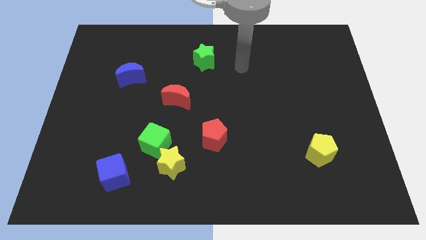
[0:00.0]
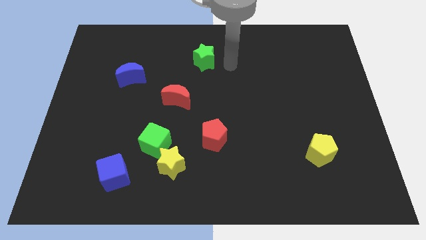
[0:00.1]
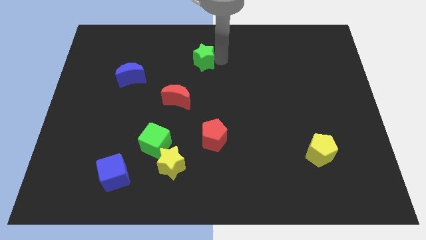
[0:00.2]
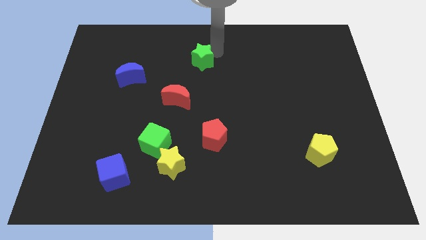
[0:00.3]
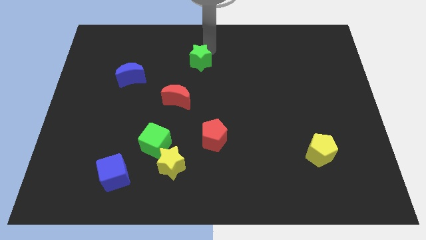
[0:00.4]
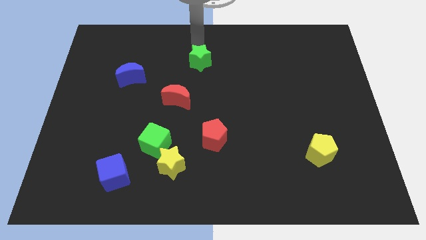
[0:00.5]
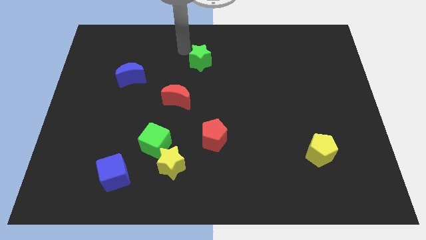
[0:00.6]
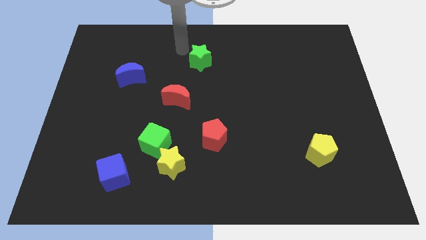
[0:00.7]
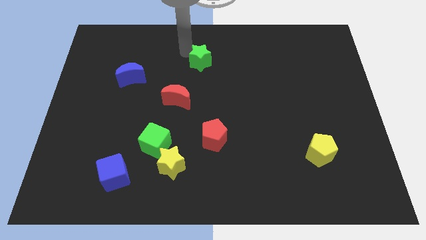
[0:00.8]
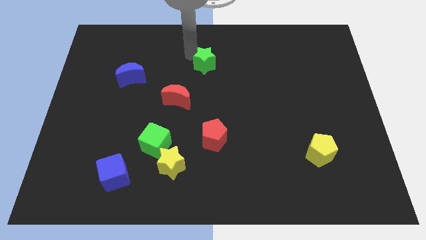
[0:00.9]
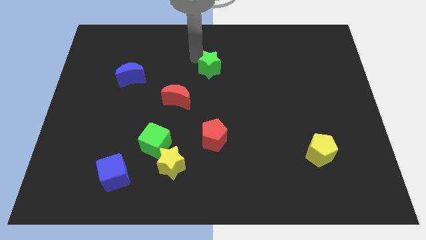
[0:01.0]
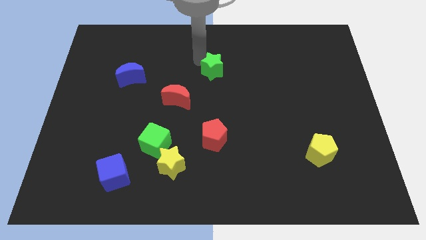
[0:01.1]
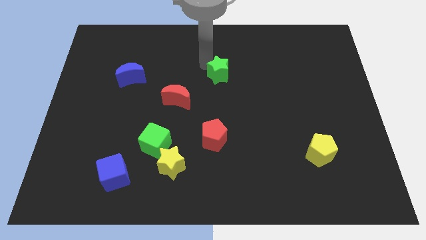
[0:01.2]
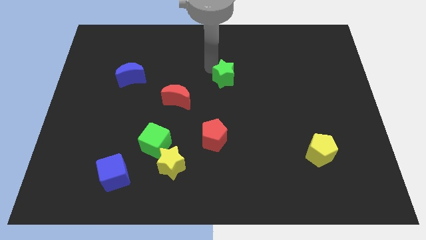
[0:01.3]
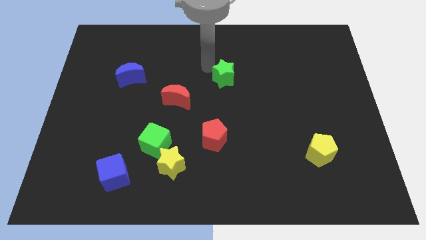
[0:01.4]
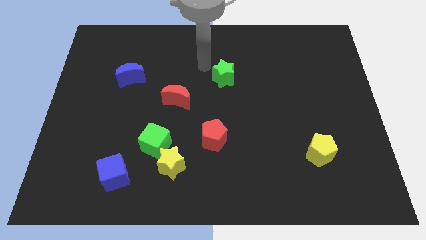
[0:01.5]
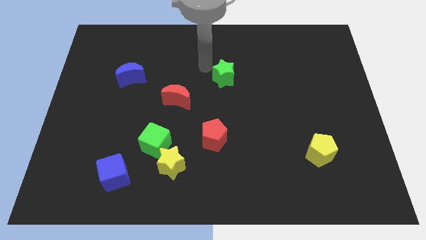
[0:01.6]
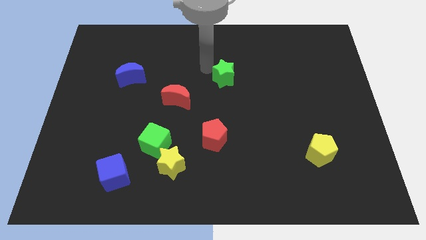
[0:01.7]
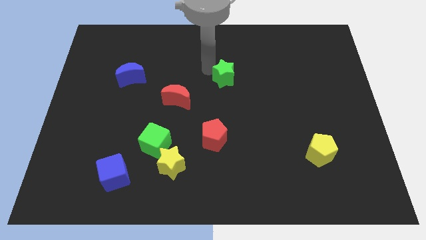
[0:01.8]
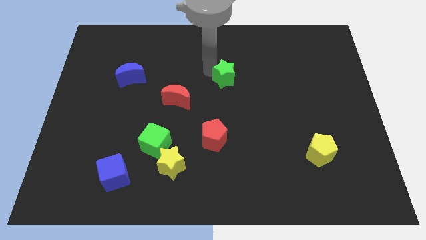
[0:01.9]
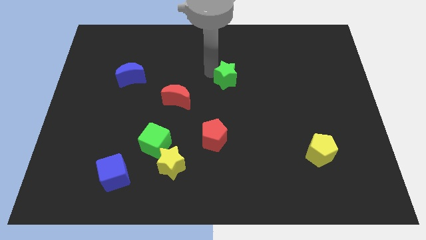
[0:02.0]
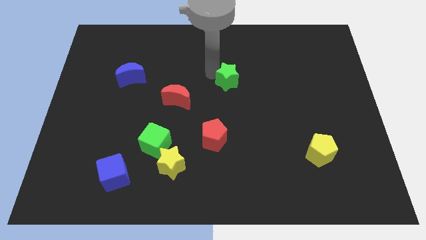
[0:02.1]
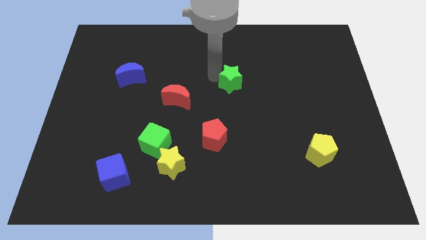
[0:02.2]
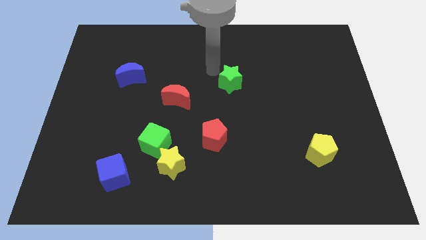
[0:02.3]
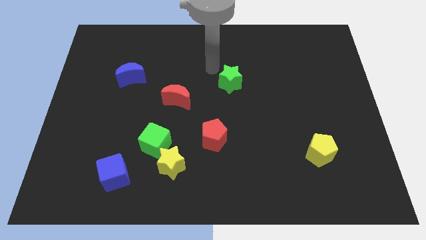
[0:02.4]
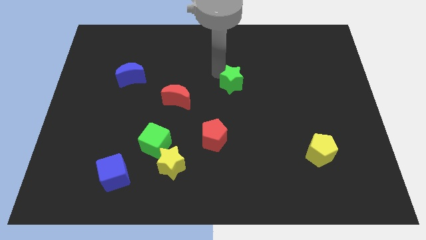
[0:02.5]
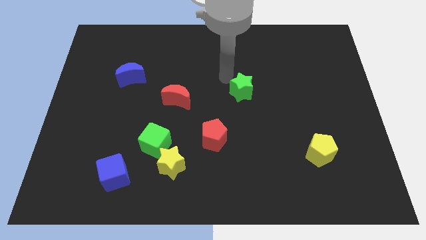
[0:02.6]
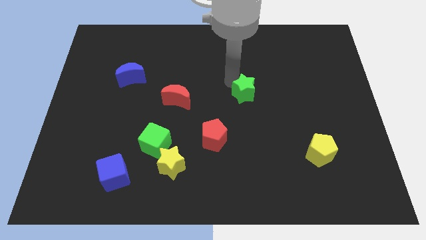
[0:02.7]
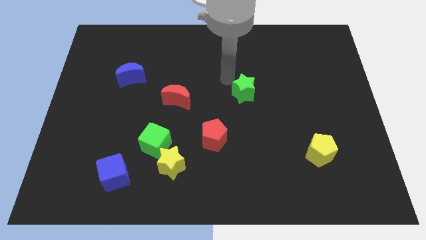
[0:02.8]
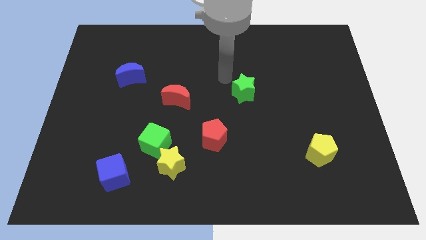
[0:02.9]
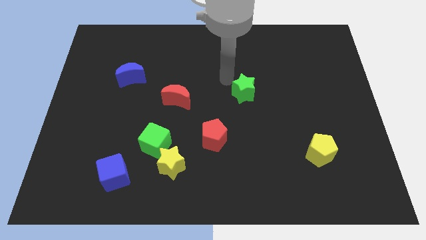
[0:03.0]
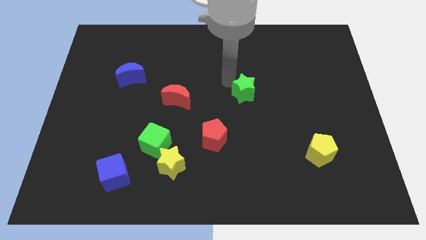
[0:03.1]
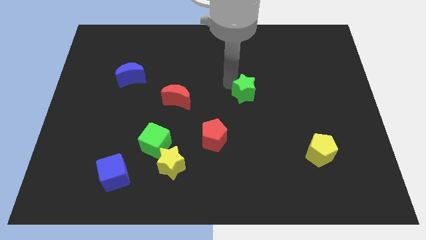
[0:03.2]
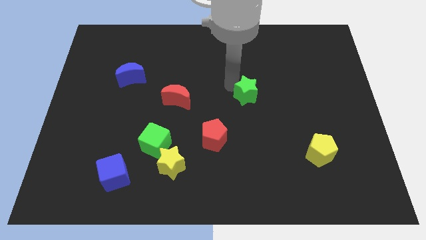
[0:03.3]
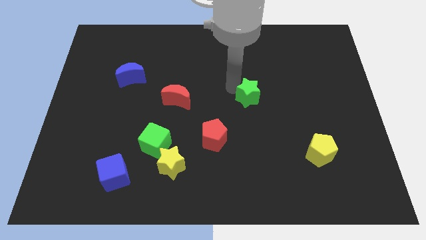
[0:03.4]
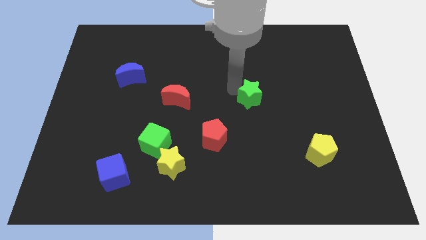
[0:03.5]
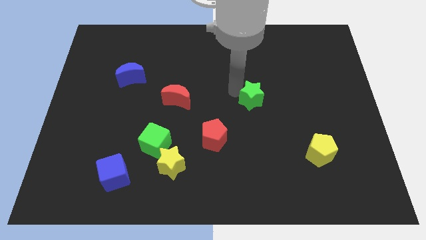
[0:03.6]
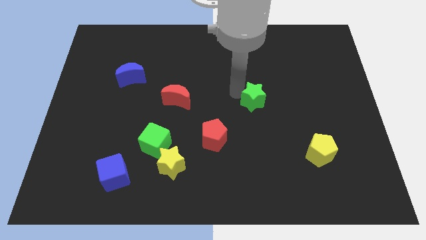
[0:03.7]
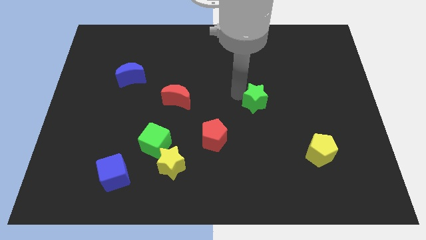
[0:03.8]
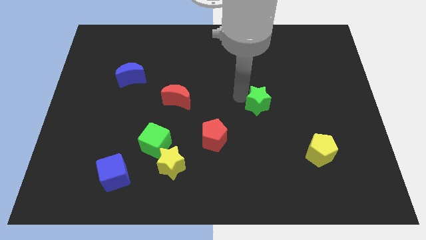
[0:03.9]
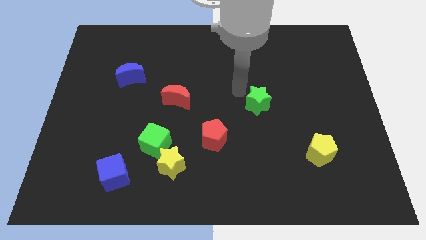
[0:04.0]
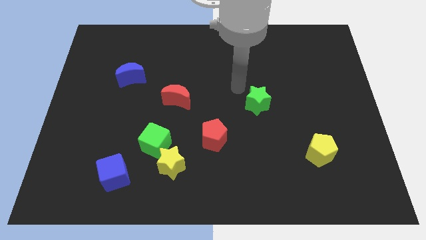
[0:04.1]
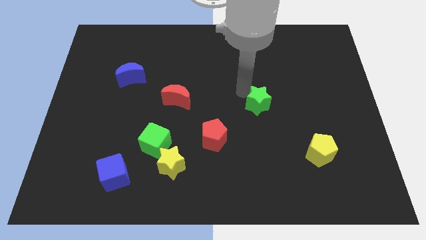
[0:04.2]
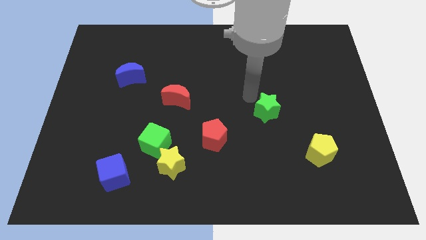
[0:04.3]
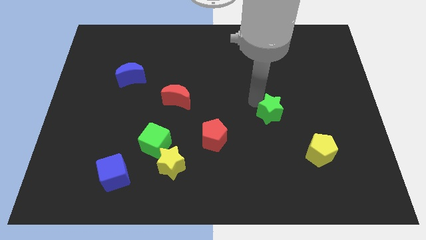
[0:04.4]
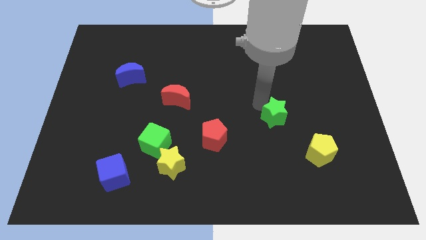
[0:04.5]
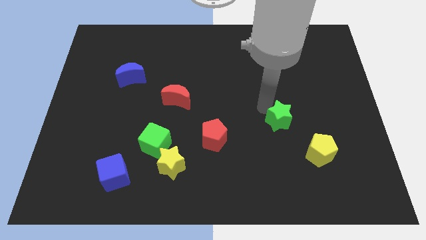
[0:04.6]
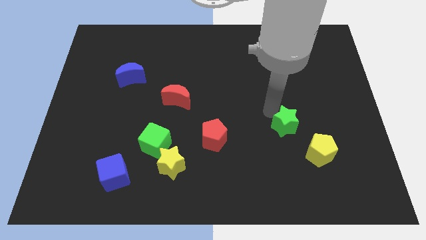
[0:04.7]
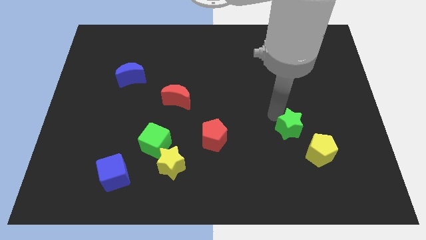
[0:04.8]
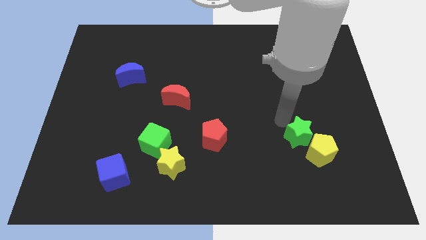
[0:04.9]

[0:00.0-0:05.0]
put the green star to the yellow pentagon

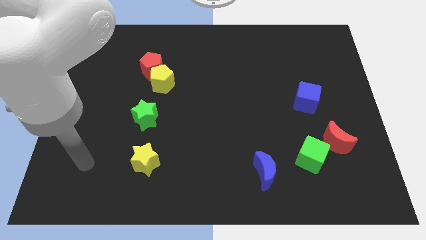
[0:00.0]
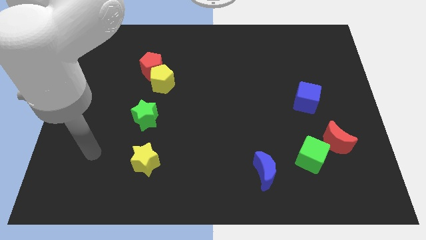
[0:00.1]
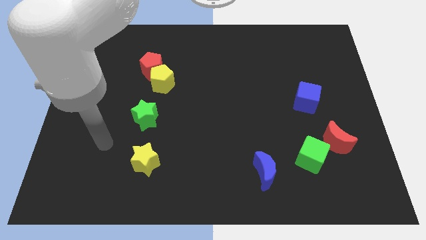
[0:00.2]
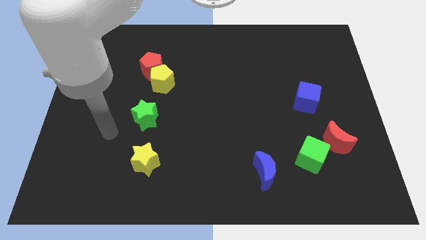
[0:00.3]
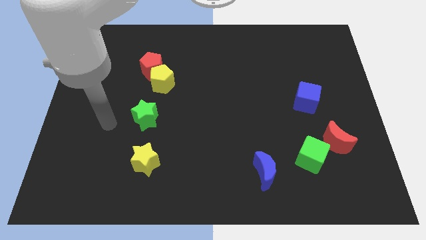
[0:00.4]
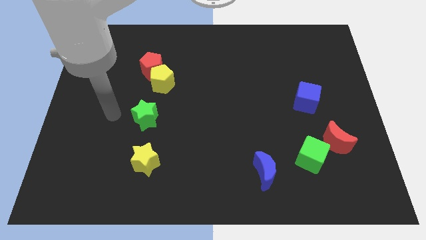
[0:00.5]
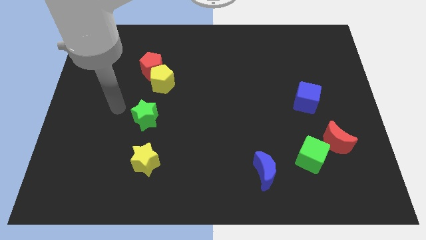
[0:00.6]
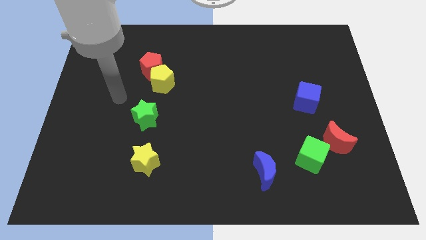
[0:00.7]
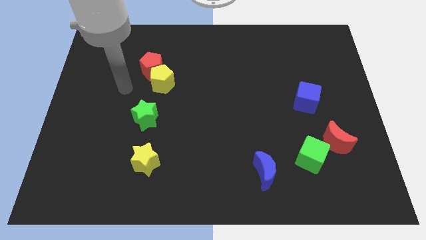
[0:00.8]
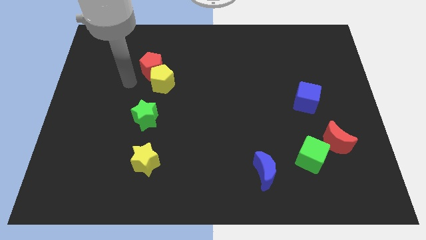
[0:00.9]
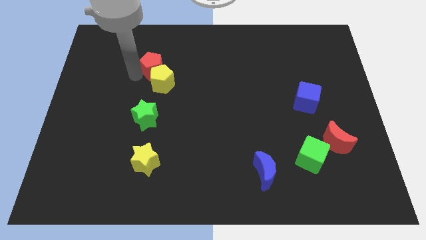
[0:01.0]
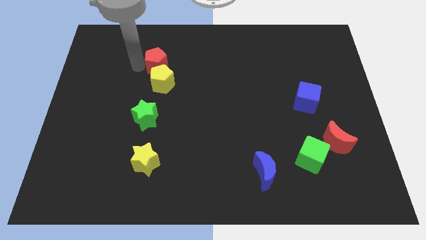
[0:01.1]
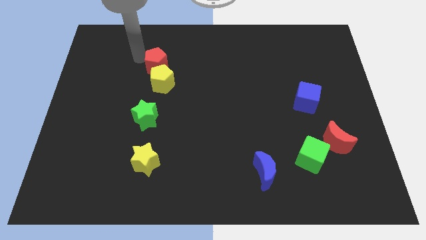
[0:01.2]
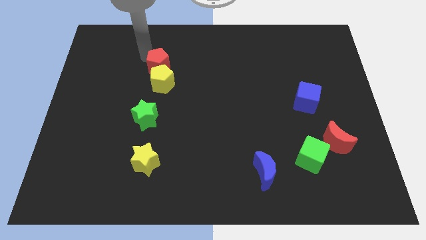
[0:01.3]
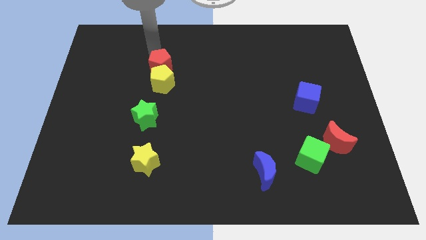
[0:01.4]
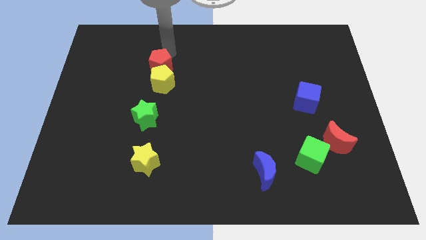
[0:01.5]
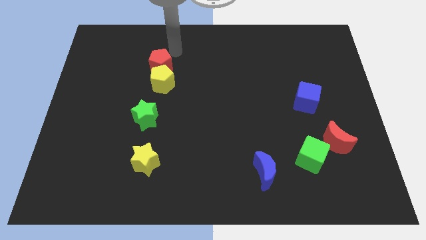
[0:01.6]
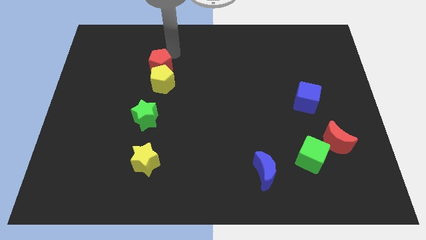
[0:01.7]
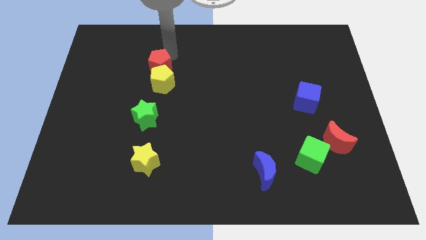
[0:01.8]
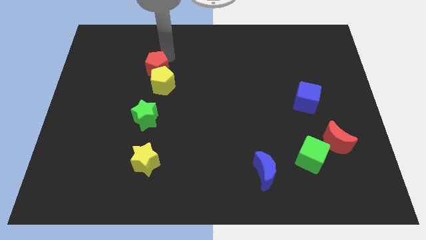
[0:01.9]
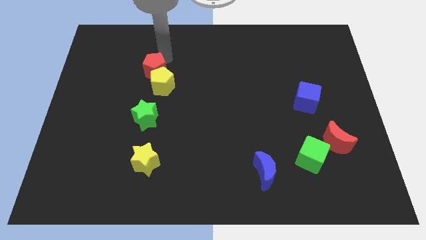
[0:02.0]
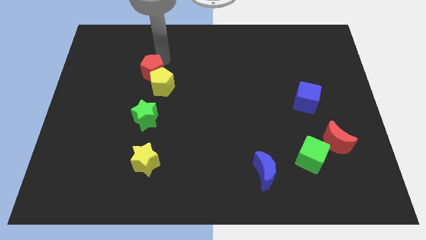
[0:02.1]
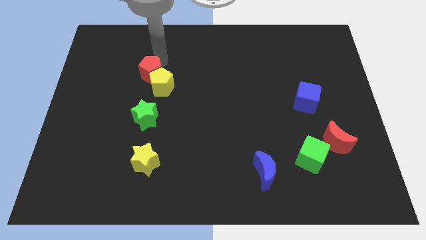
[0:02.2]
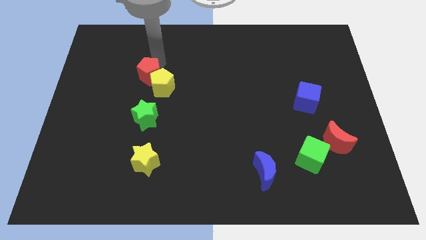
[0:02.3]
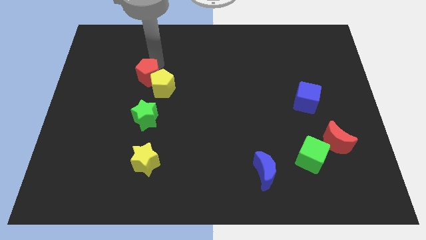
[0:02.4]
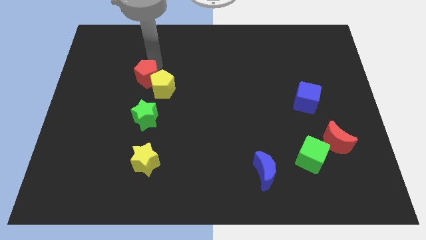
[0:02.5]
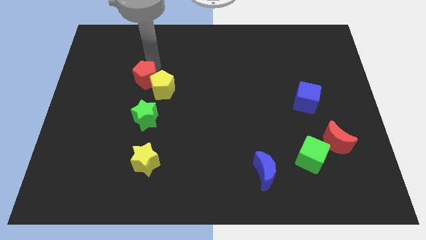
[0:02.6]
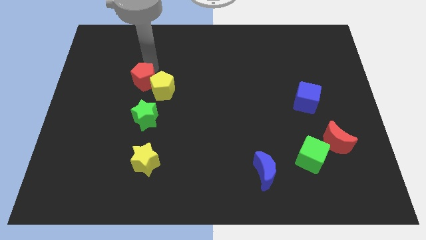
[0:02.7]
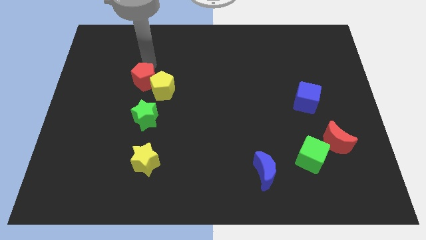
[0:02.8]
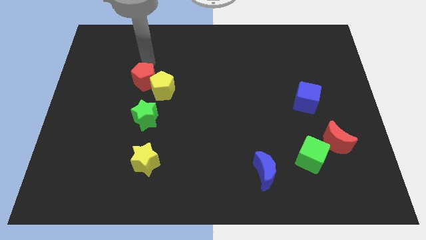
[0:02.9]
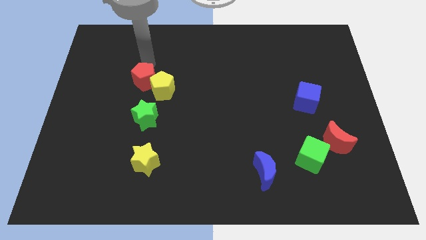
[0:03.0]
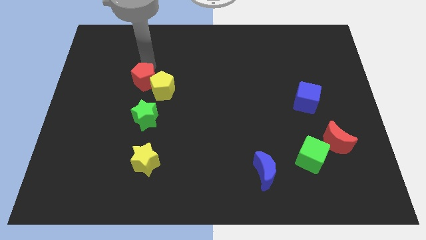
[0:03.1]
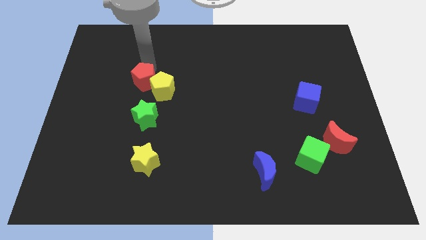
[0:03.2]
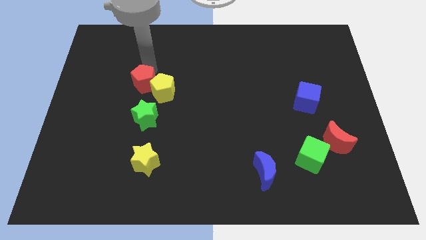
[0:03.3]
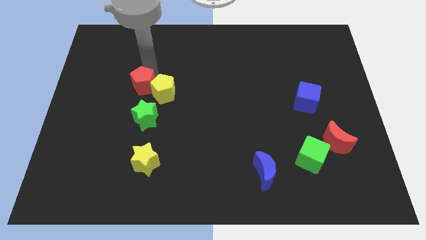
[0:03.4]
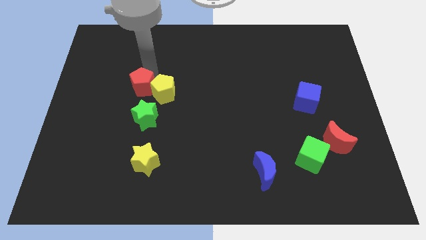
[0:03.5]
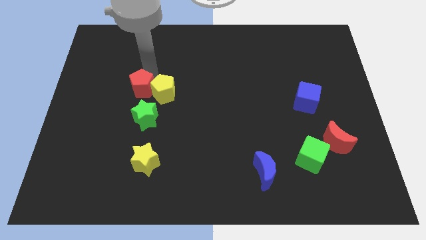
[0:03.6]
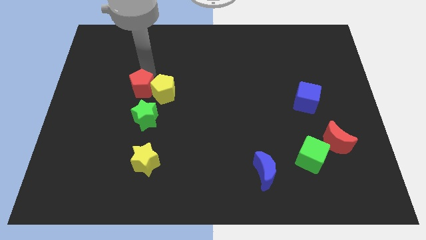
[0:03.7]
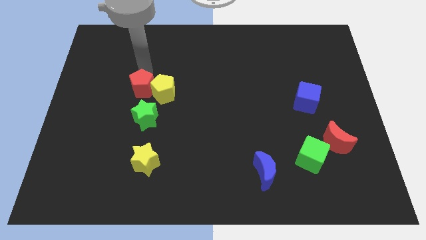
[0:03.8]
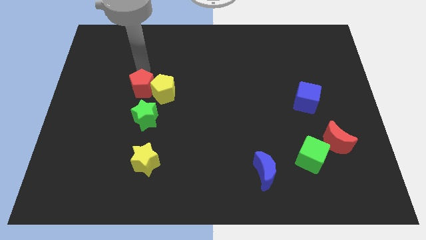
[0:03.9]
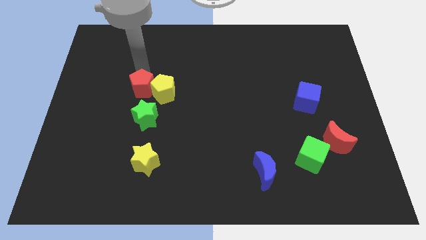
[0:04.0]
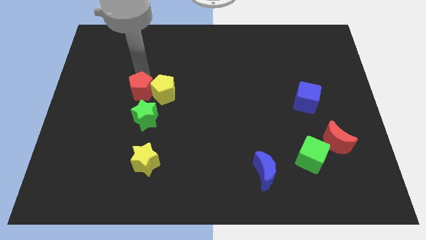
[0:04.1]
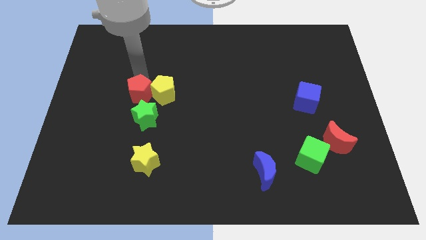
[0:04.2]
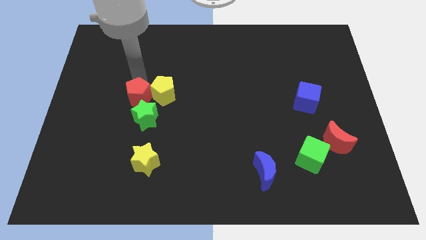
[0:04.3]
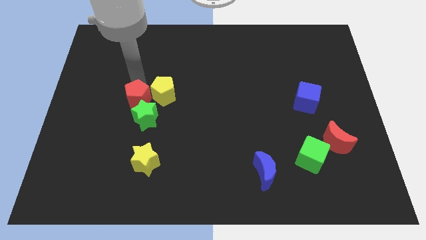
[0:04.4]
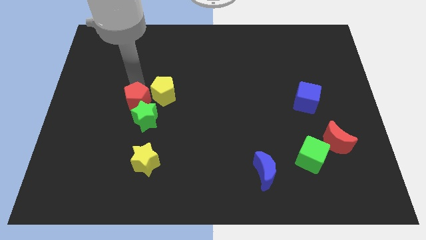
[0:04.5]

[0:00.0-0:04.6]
move the red pentagon close to the green star
